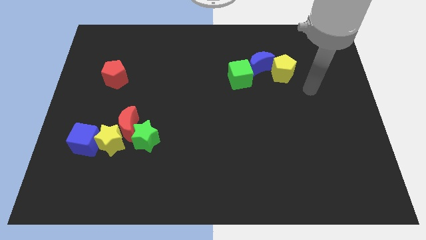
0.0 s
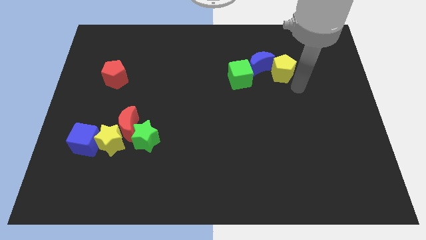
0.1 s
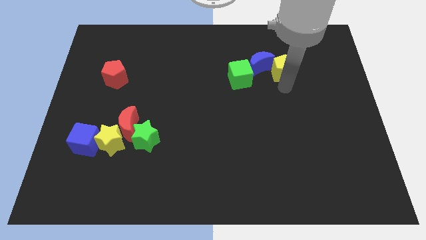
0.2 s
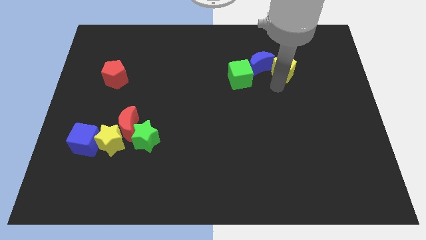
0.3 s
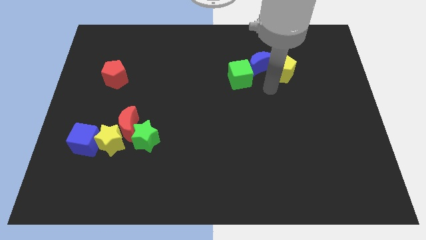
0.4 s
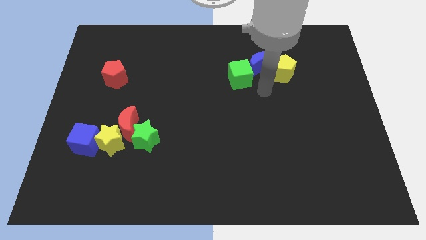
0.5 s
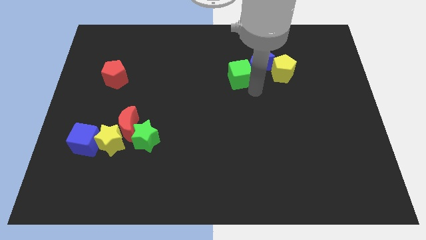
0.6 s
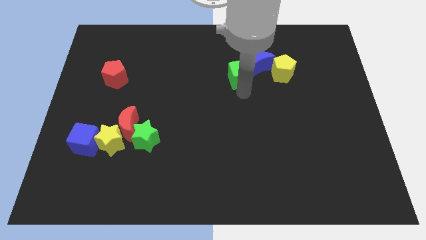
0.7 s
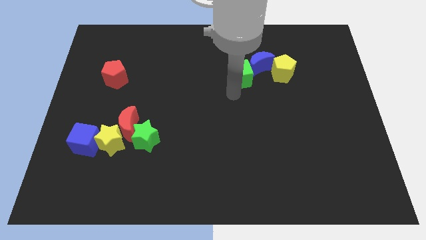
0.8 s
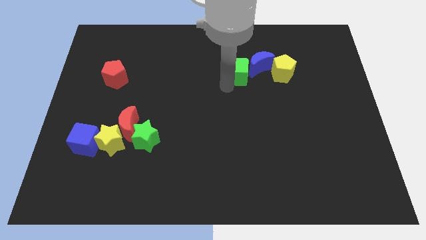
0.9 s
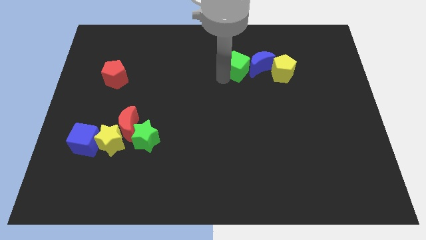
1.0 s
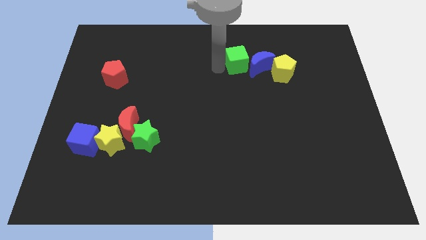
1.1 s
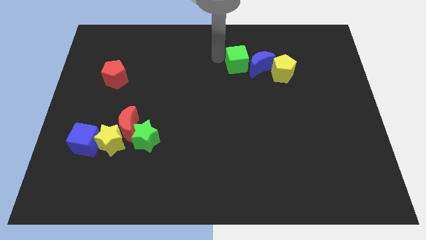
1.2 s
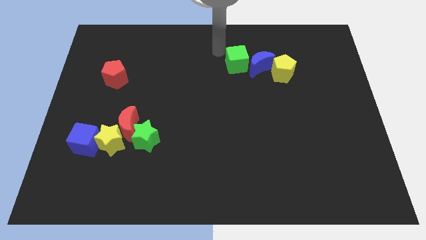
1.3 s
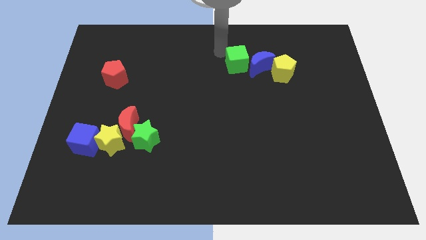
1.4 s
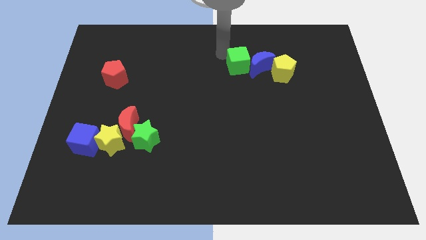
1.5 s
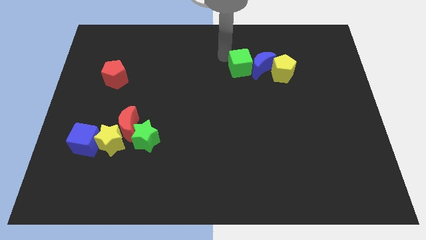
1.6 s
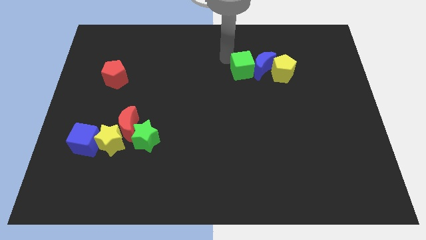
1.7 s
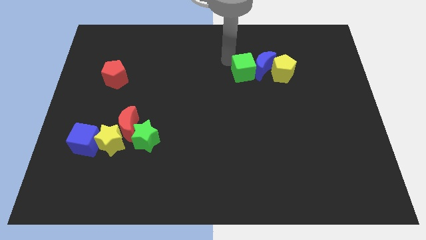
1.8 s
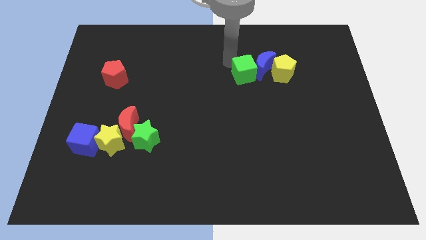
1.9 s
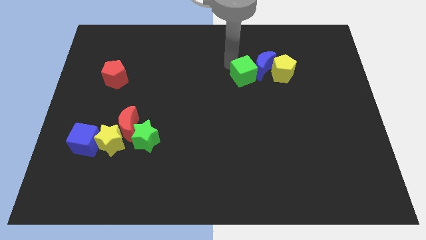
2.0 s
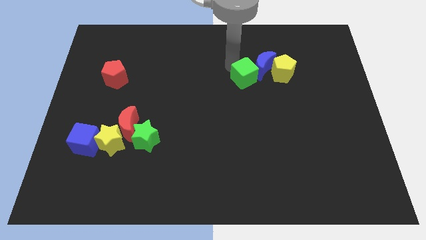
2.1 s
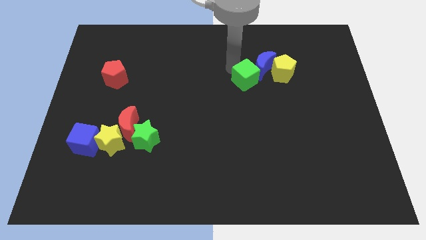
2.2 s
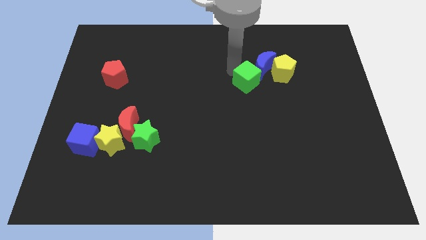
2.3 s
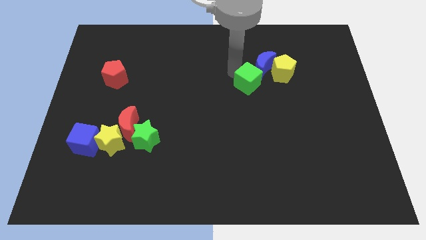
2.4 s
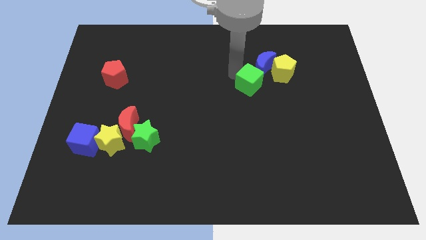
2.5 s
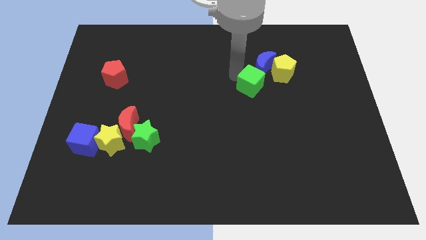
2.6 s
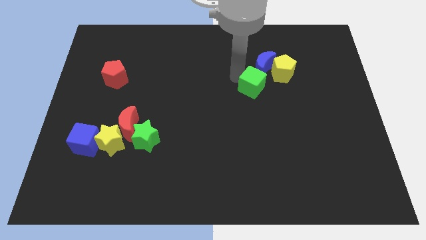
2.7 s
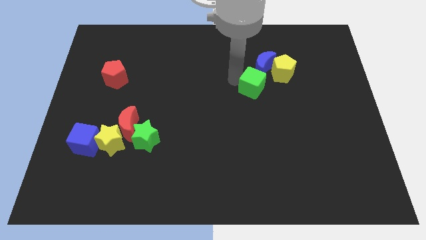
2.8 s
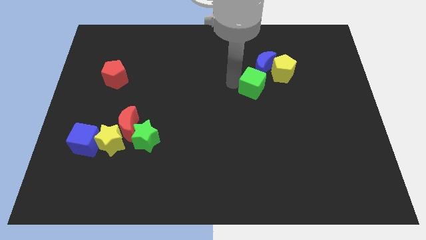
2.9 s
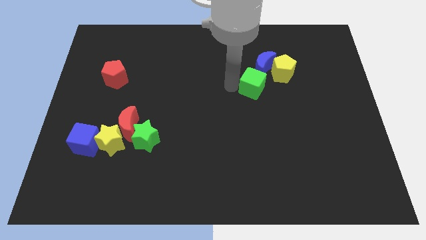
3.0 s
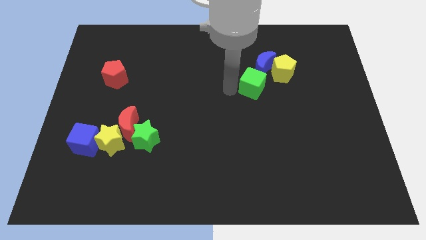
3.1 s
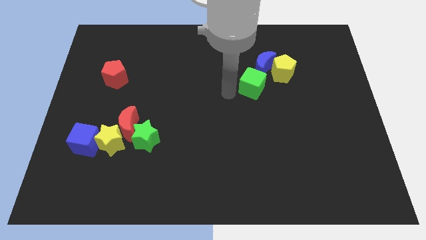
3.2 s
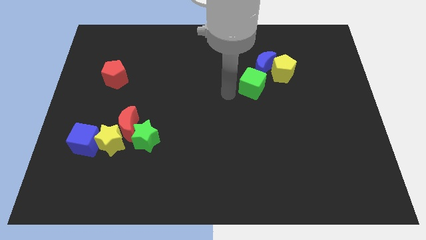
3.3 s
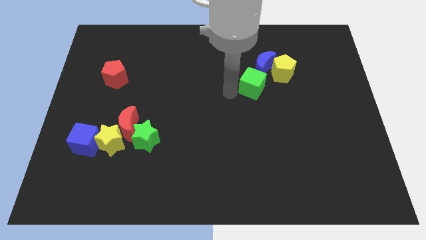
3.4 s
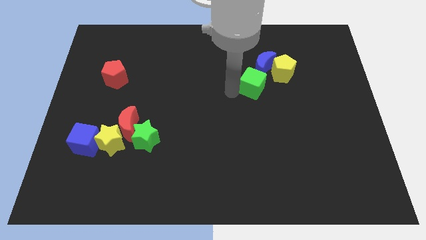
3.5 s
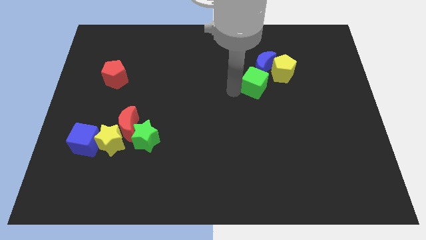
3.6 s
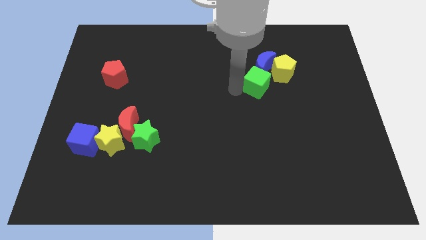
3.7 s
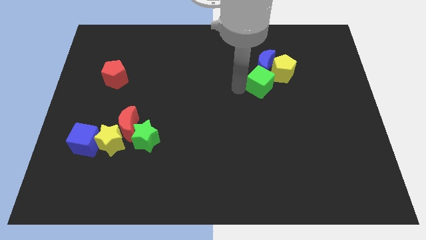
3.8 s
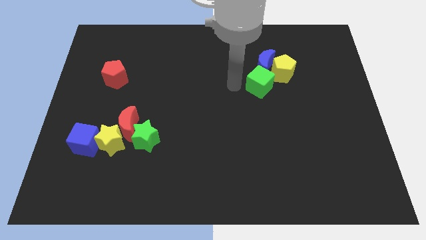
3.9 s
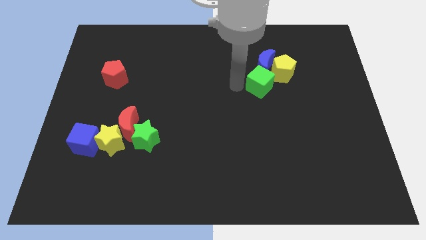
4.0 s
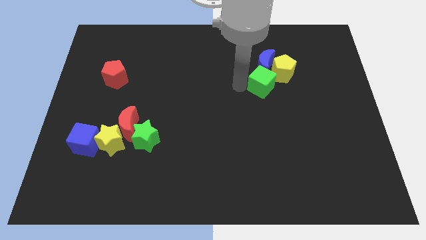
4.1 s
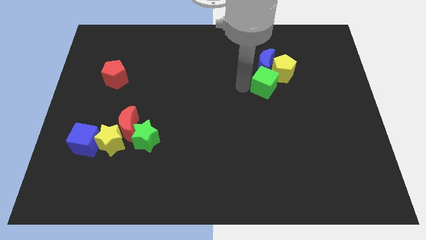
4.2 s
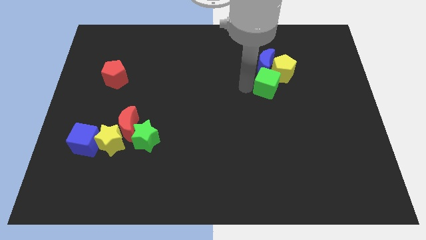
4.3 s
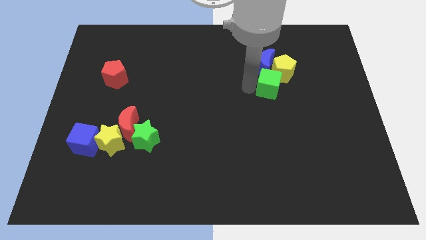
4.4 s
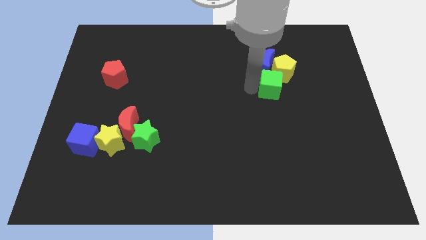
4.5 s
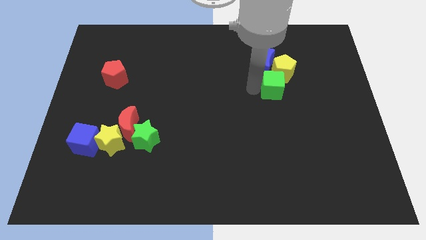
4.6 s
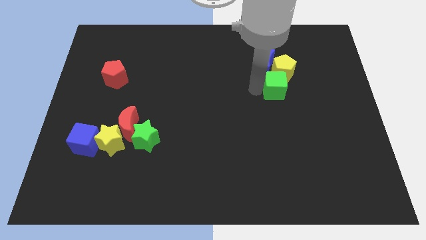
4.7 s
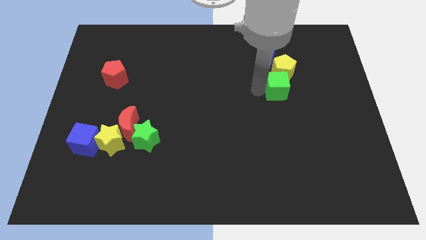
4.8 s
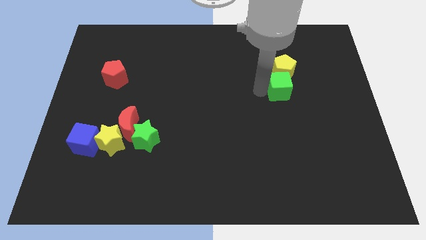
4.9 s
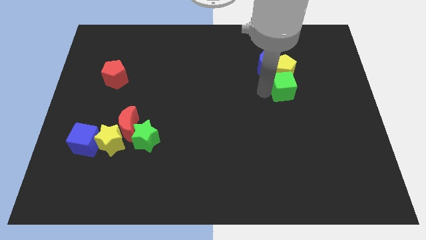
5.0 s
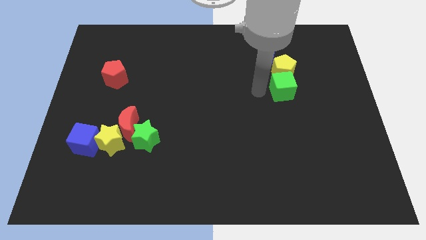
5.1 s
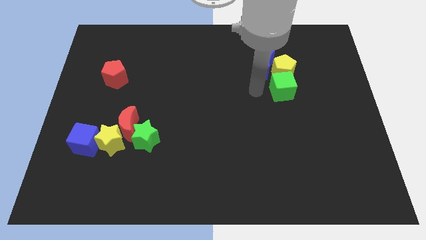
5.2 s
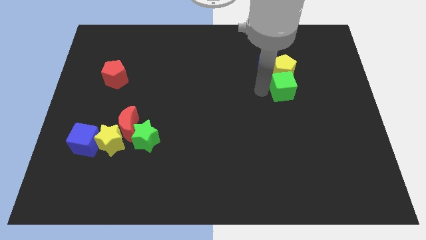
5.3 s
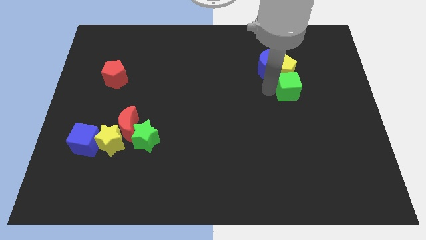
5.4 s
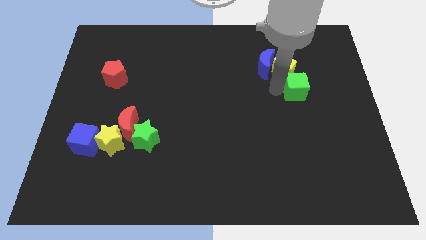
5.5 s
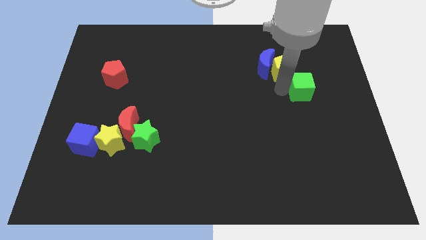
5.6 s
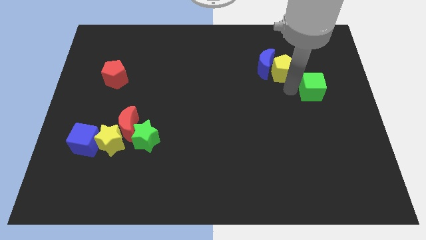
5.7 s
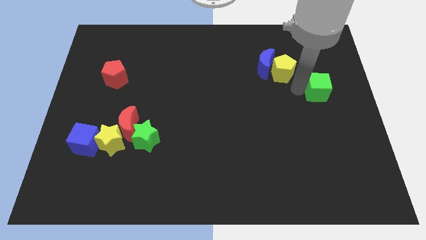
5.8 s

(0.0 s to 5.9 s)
move the green cube to the center right

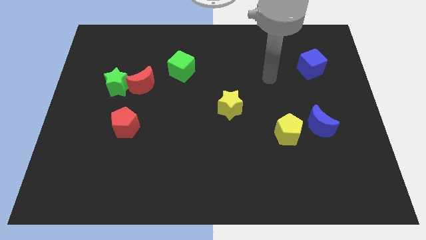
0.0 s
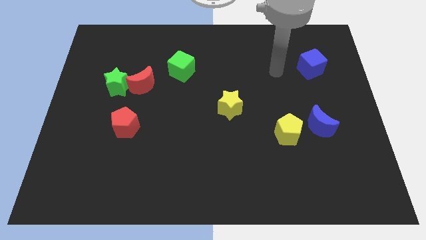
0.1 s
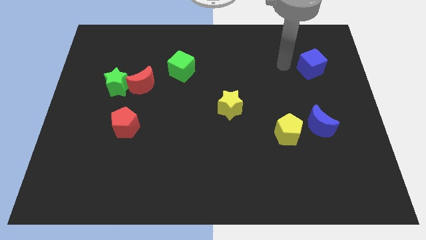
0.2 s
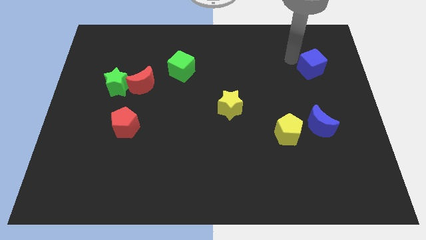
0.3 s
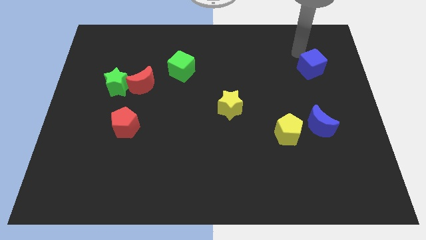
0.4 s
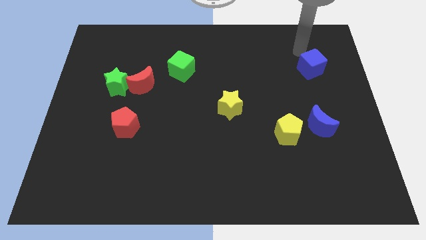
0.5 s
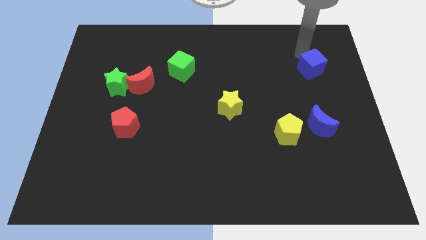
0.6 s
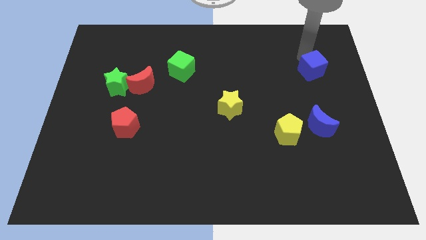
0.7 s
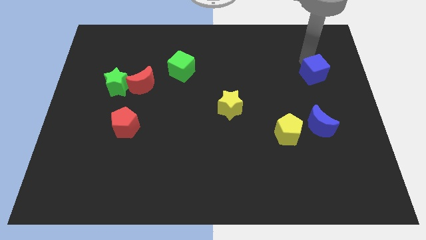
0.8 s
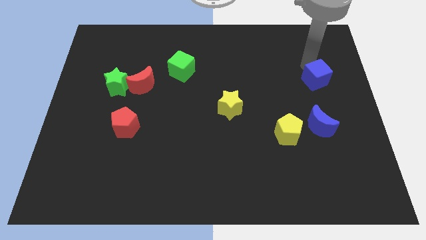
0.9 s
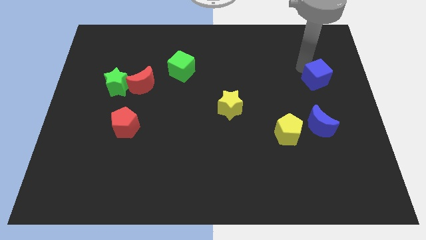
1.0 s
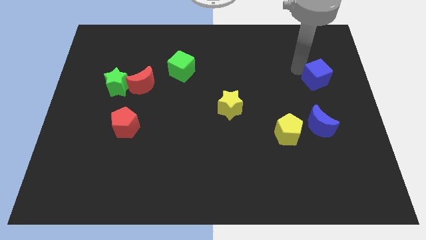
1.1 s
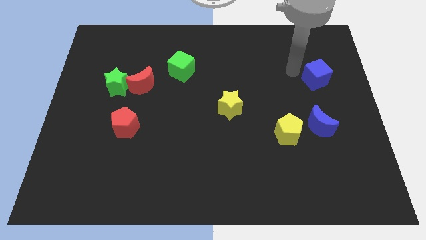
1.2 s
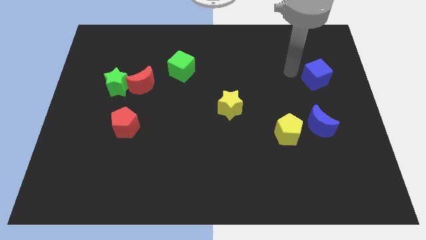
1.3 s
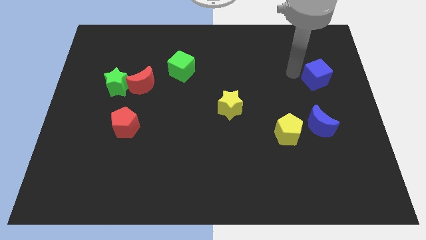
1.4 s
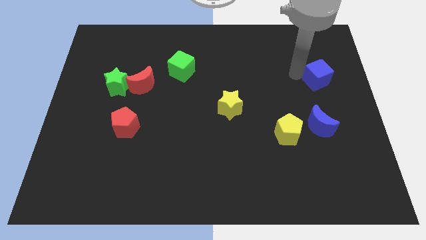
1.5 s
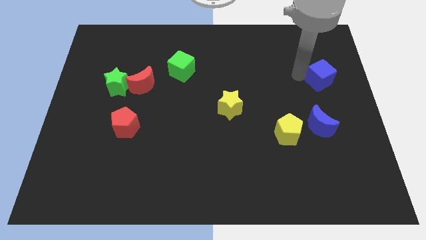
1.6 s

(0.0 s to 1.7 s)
slide the blue cube to the center right
